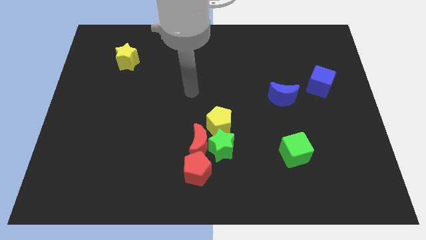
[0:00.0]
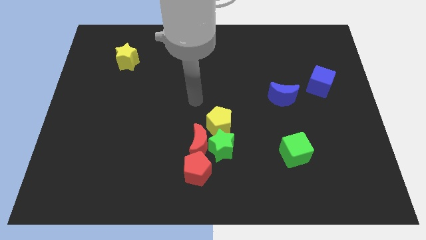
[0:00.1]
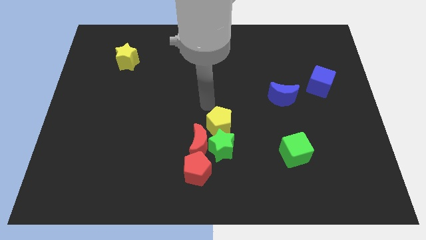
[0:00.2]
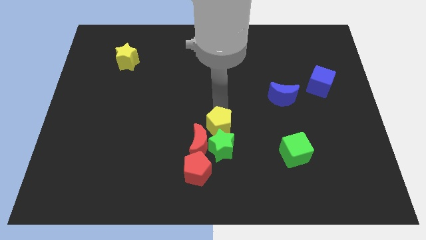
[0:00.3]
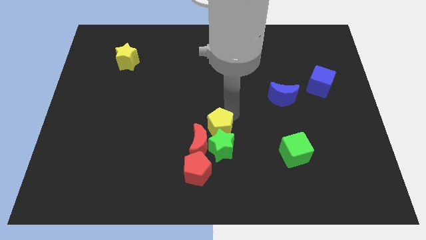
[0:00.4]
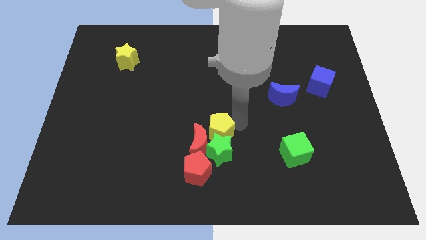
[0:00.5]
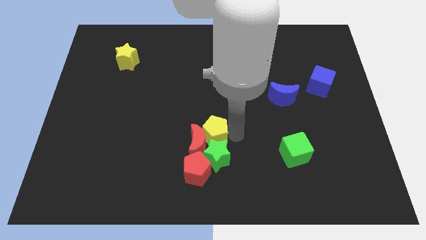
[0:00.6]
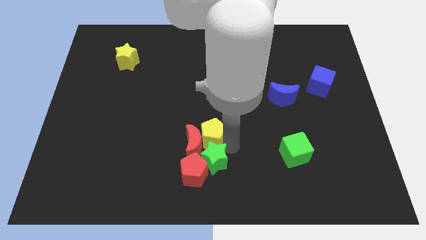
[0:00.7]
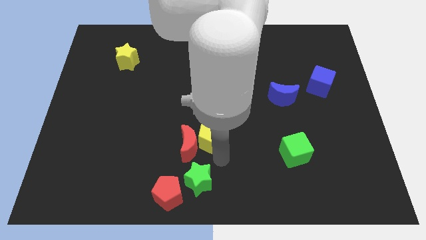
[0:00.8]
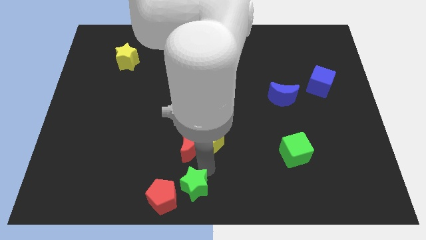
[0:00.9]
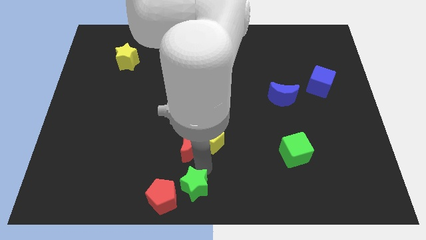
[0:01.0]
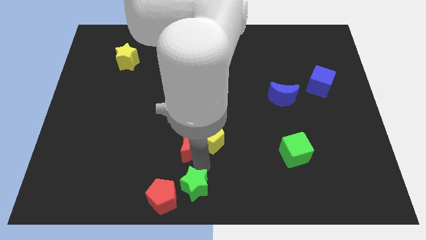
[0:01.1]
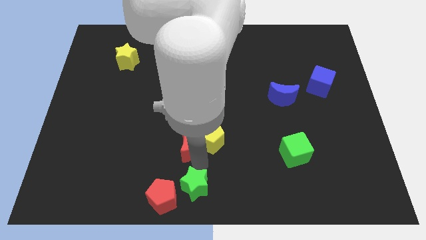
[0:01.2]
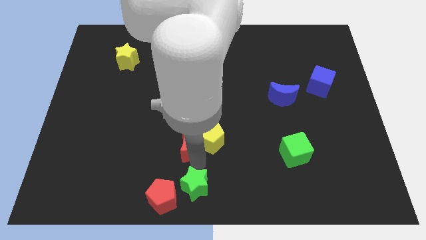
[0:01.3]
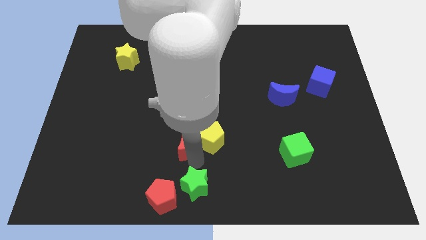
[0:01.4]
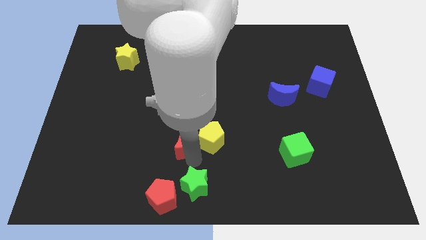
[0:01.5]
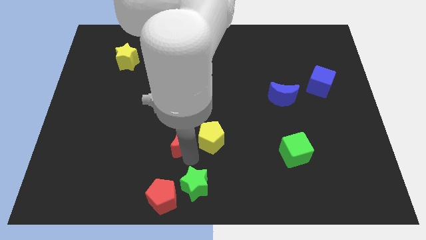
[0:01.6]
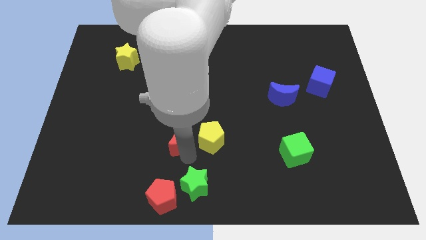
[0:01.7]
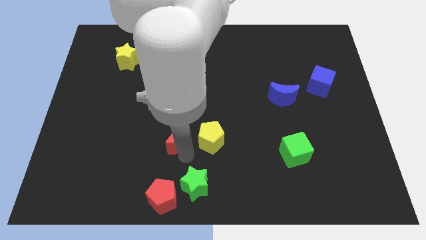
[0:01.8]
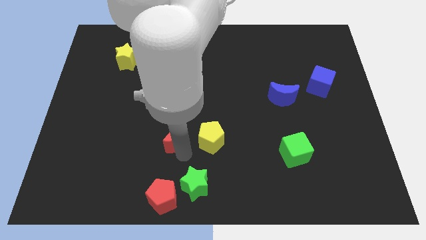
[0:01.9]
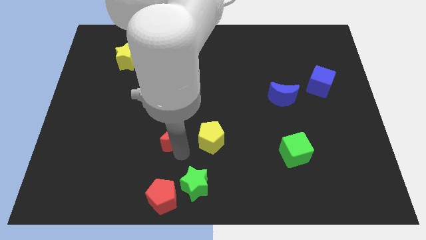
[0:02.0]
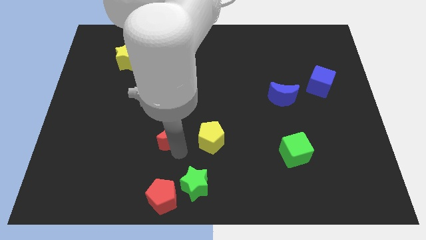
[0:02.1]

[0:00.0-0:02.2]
separate the red moon from the green star, red pentagon, and yellow pentagon

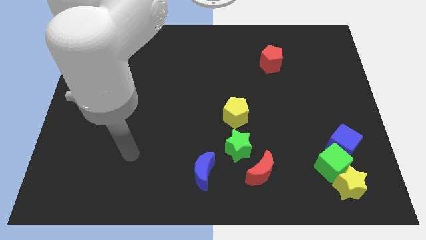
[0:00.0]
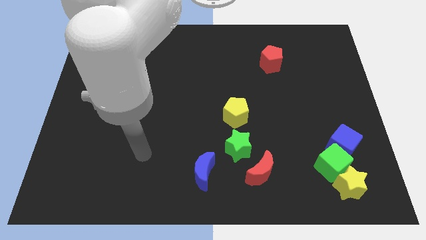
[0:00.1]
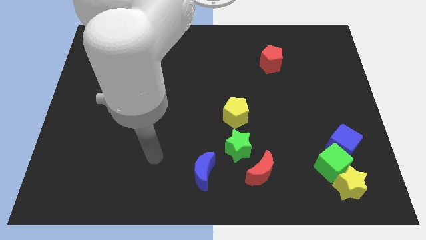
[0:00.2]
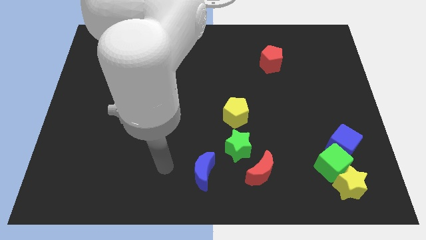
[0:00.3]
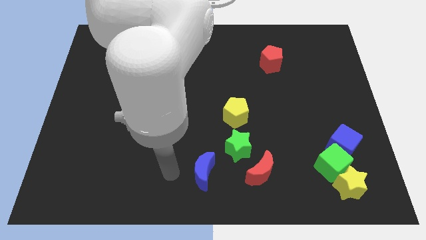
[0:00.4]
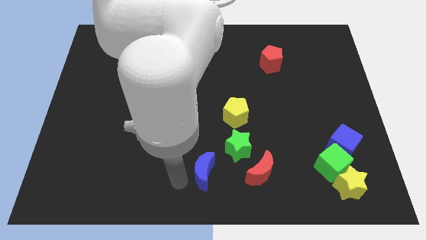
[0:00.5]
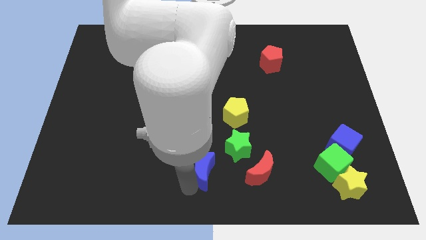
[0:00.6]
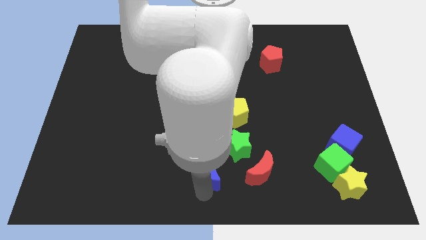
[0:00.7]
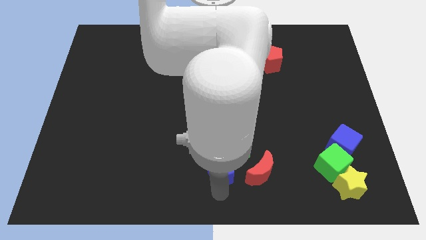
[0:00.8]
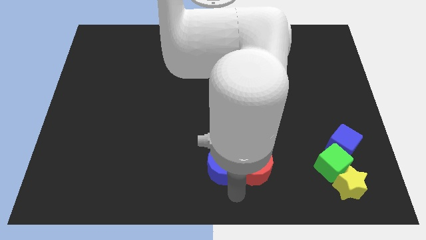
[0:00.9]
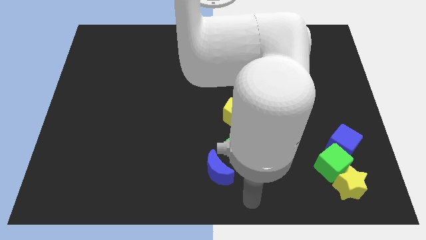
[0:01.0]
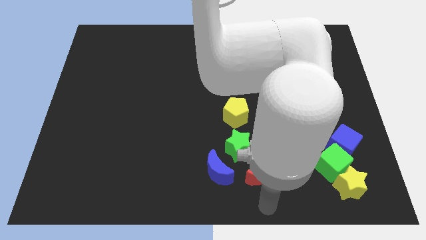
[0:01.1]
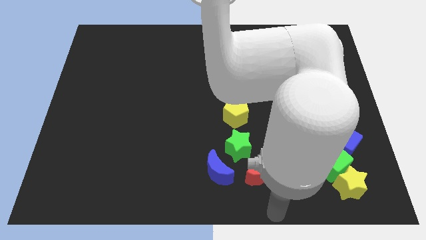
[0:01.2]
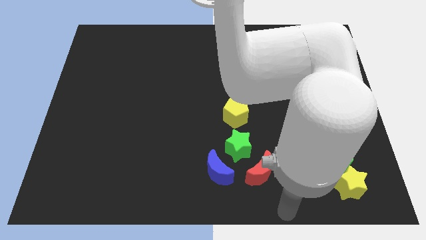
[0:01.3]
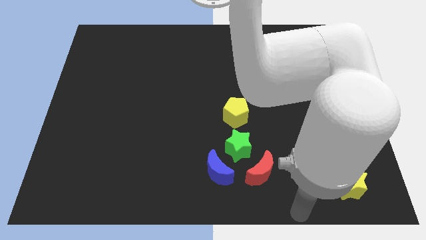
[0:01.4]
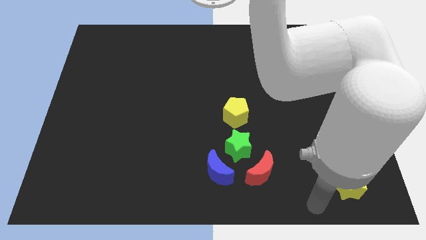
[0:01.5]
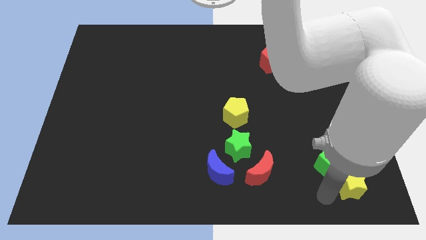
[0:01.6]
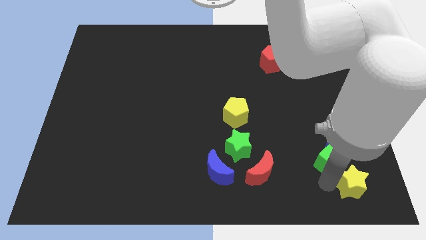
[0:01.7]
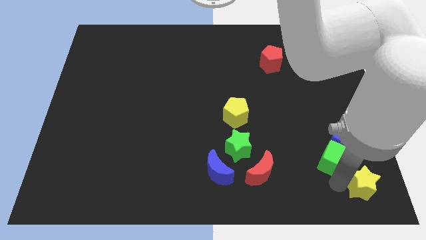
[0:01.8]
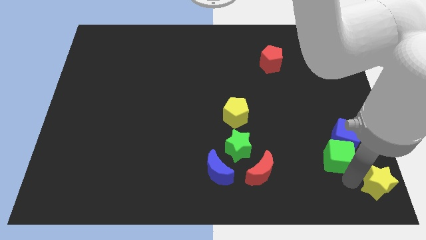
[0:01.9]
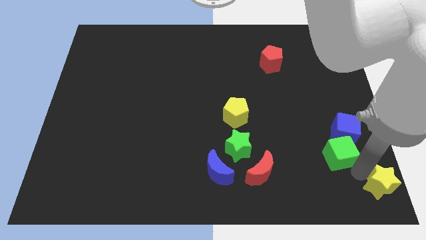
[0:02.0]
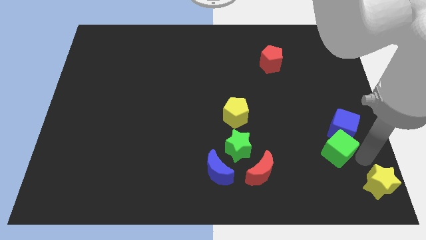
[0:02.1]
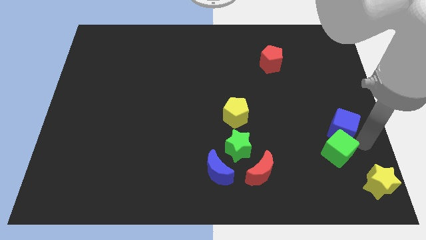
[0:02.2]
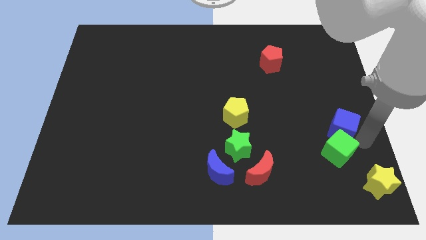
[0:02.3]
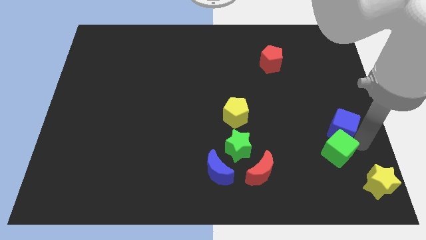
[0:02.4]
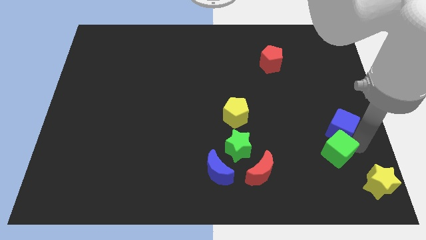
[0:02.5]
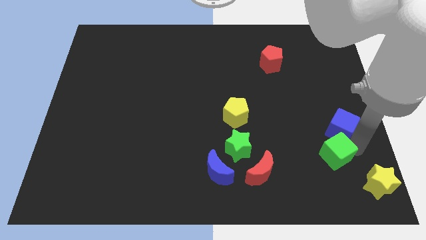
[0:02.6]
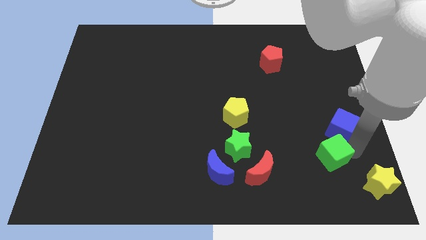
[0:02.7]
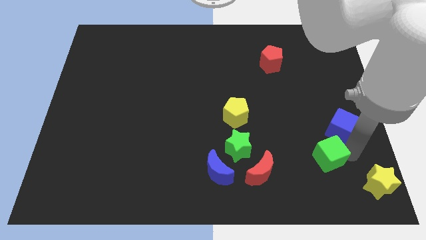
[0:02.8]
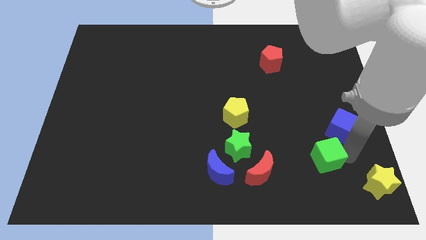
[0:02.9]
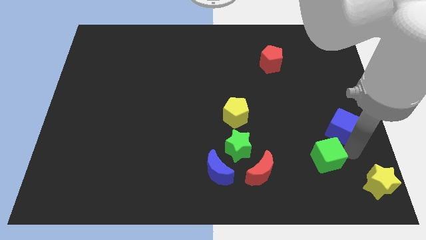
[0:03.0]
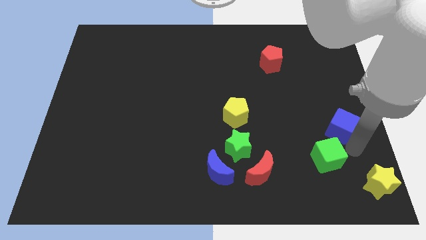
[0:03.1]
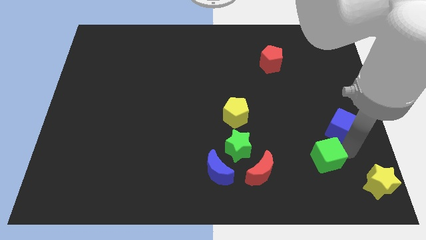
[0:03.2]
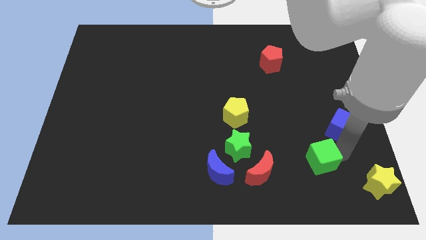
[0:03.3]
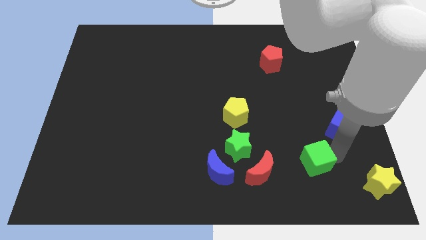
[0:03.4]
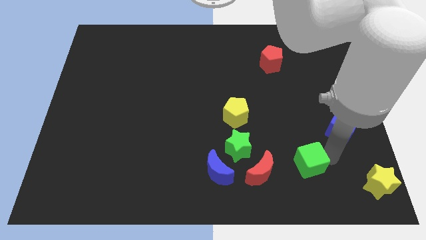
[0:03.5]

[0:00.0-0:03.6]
move the green cube away from the yellow star and blue cube

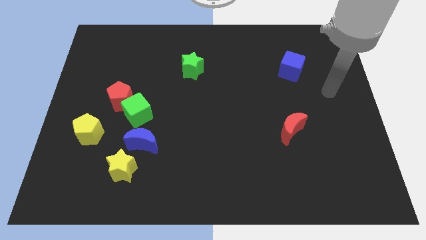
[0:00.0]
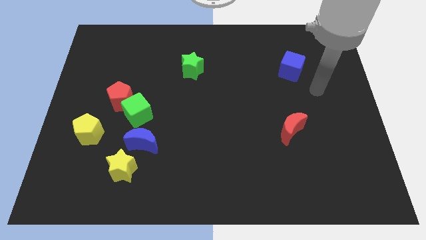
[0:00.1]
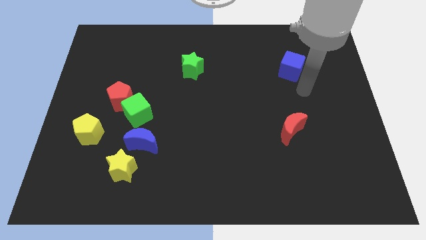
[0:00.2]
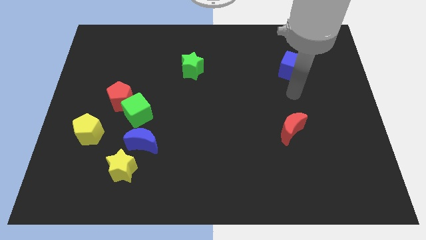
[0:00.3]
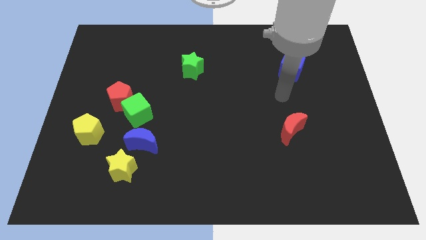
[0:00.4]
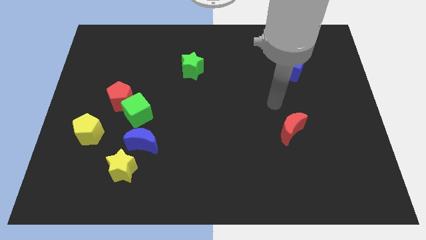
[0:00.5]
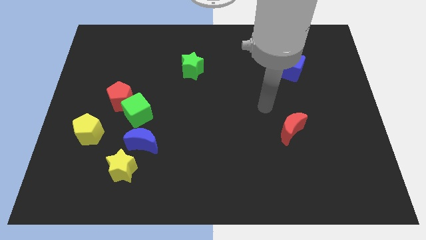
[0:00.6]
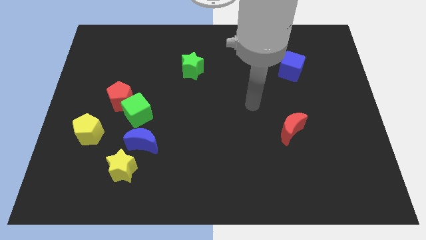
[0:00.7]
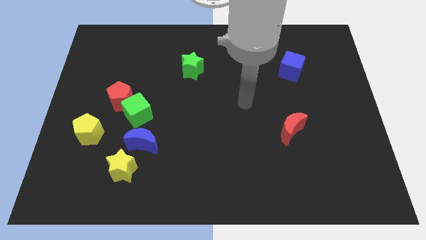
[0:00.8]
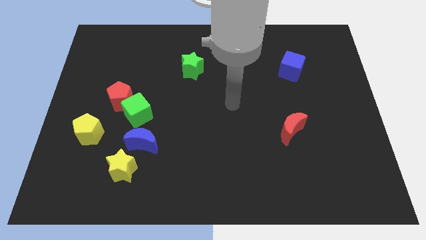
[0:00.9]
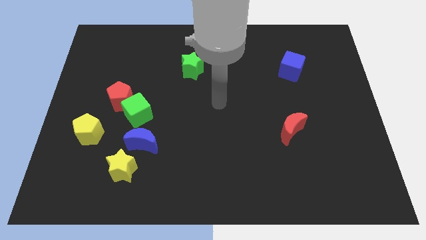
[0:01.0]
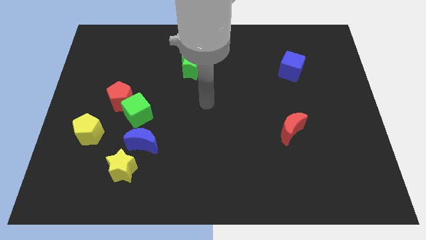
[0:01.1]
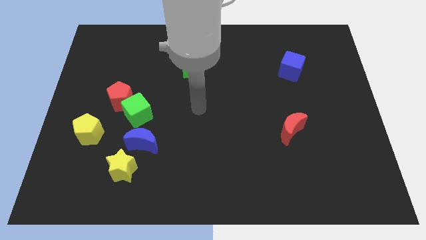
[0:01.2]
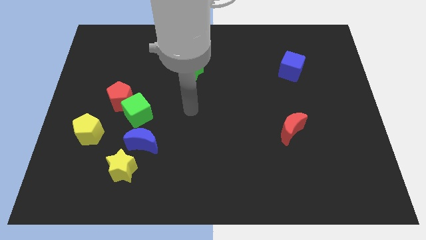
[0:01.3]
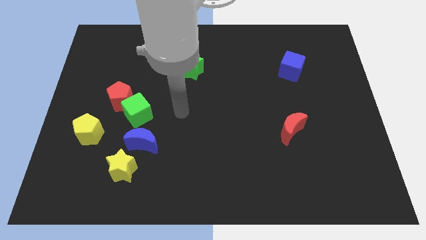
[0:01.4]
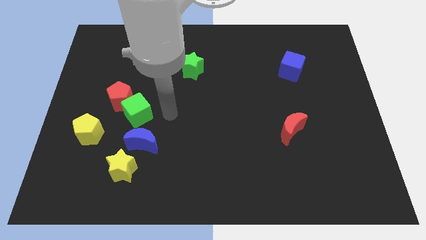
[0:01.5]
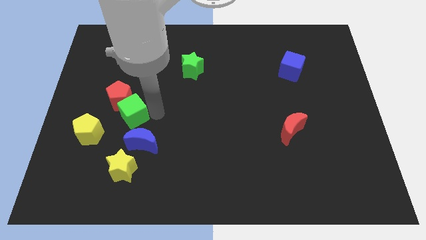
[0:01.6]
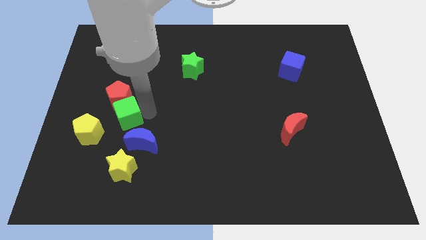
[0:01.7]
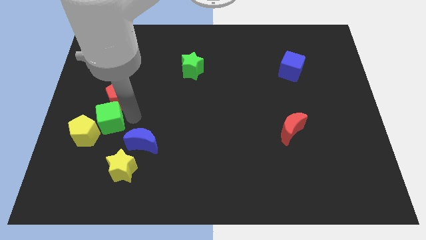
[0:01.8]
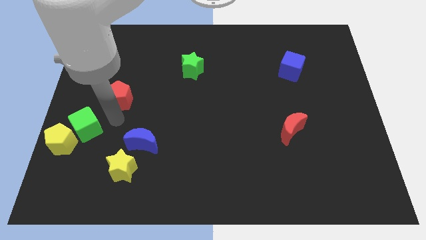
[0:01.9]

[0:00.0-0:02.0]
separate the red pentagon from the green cube

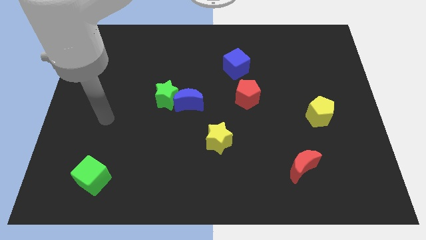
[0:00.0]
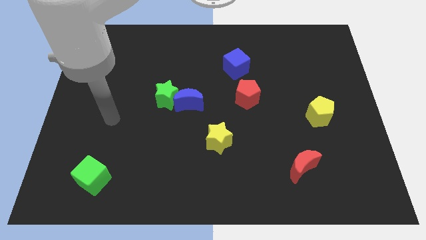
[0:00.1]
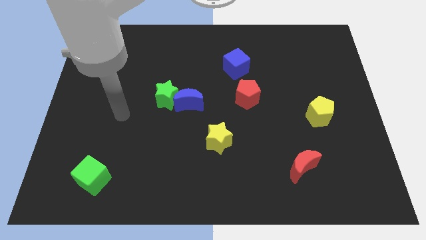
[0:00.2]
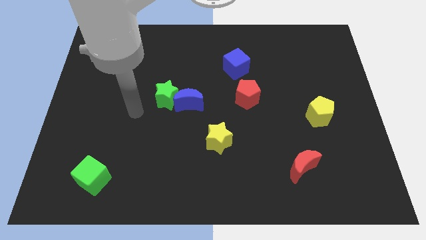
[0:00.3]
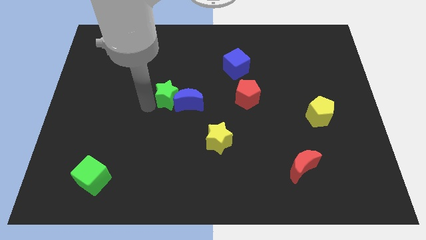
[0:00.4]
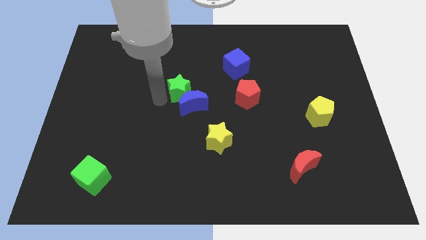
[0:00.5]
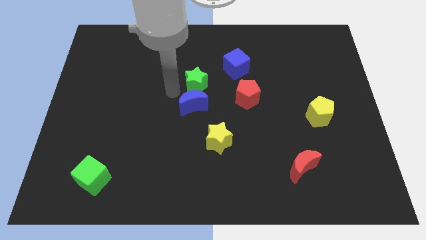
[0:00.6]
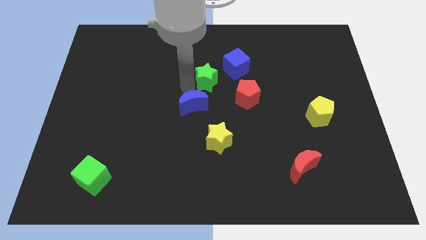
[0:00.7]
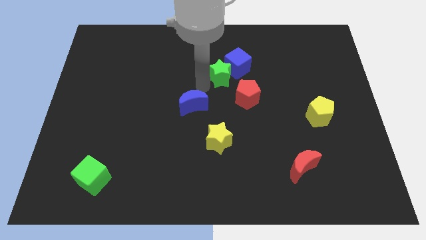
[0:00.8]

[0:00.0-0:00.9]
separate the blue moon from the green star

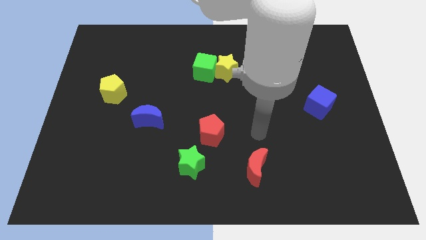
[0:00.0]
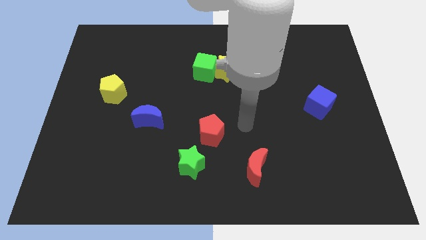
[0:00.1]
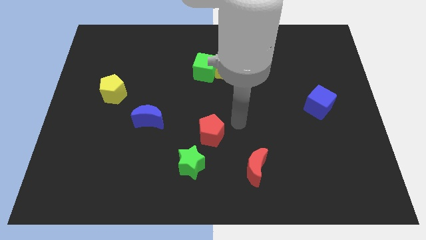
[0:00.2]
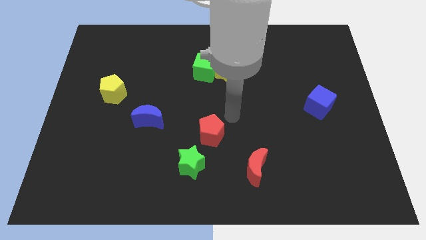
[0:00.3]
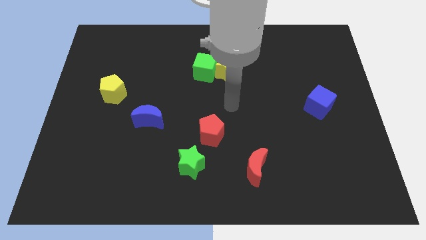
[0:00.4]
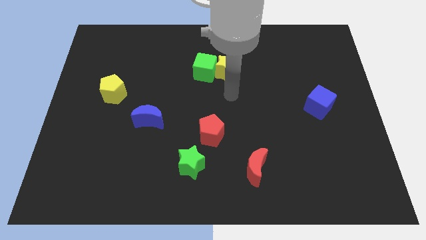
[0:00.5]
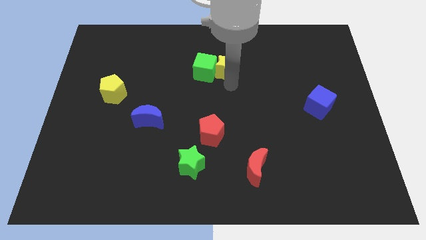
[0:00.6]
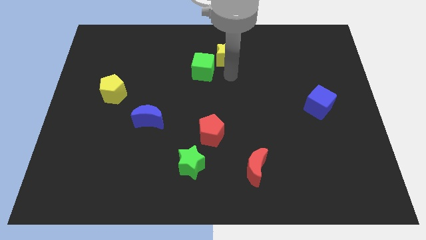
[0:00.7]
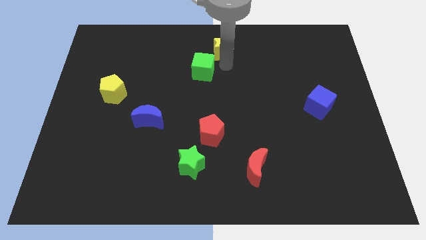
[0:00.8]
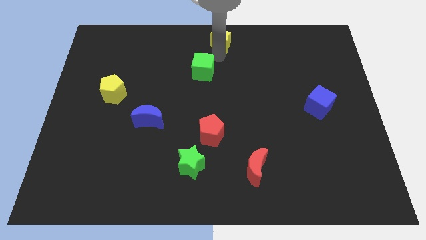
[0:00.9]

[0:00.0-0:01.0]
separate the green cube from the yellow star
